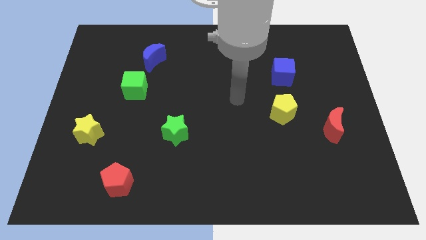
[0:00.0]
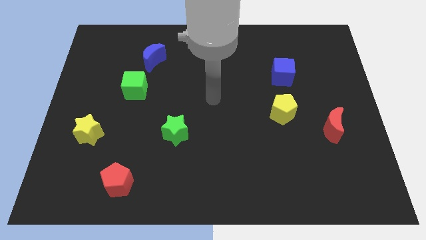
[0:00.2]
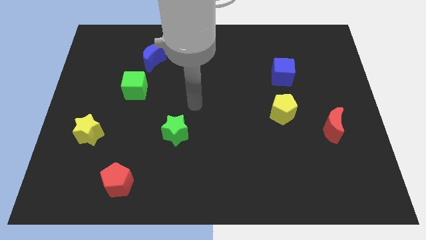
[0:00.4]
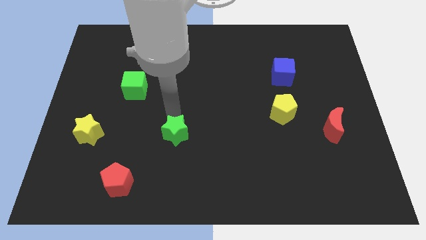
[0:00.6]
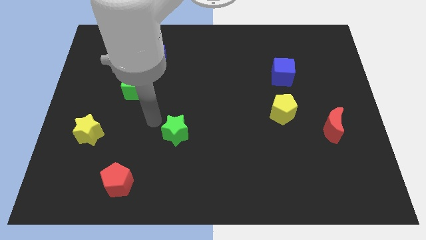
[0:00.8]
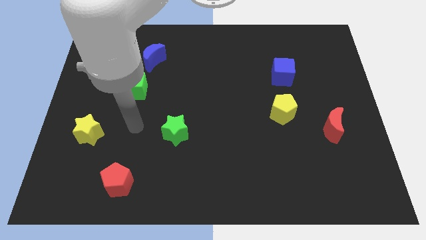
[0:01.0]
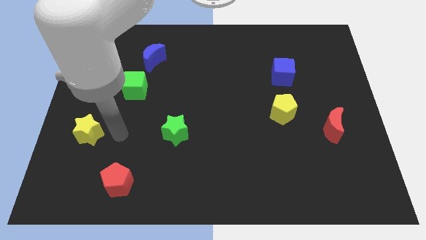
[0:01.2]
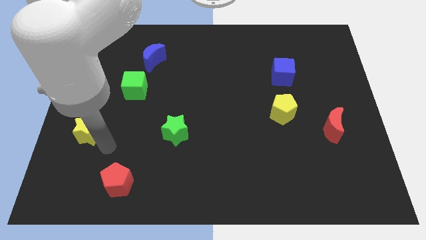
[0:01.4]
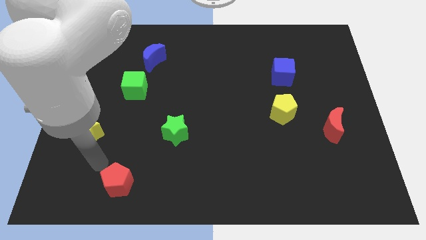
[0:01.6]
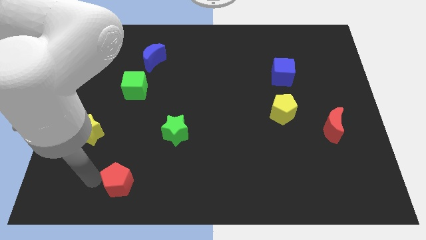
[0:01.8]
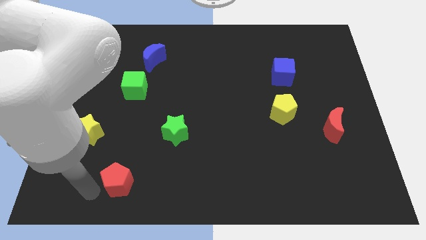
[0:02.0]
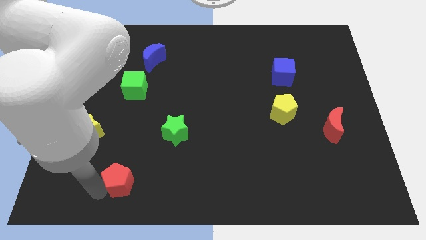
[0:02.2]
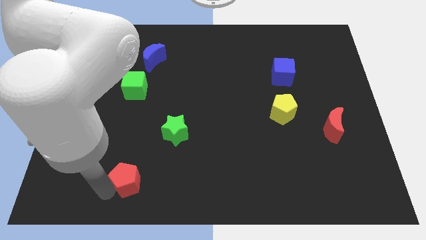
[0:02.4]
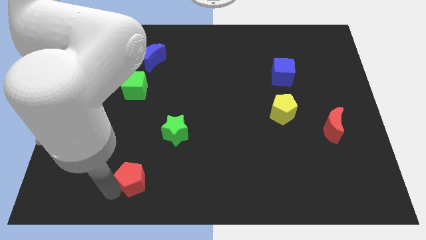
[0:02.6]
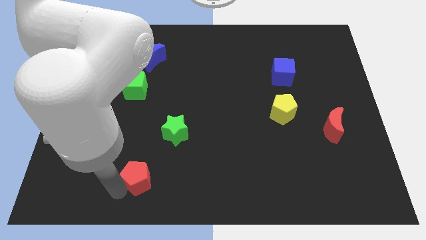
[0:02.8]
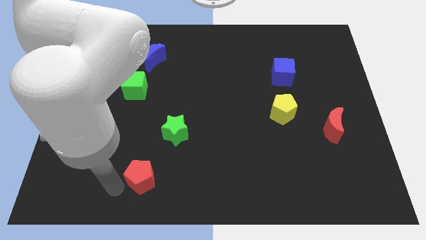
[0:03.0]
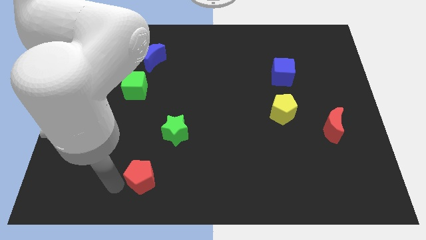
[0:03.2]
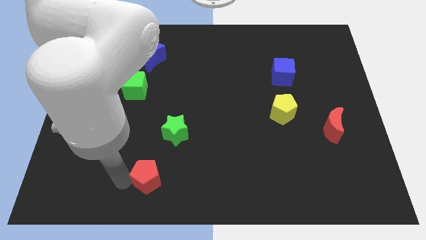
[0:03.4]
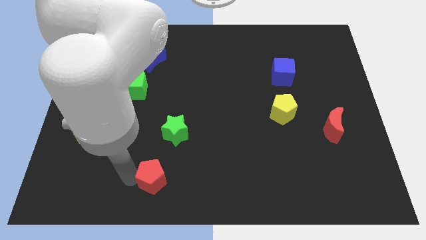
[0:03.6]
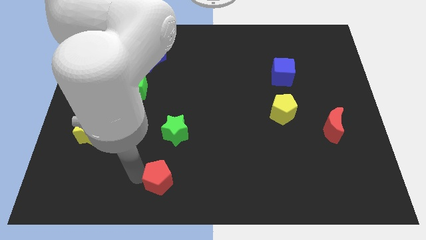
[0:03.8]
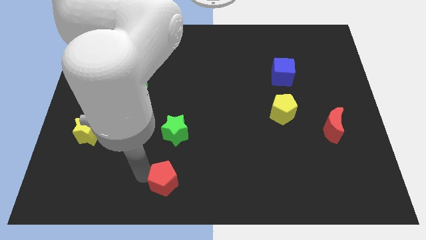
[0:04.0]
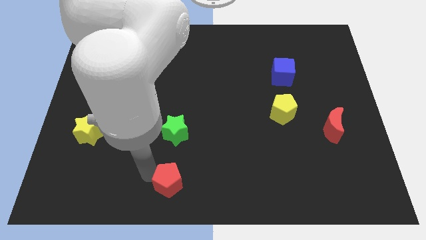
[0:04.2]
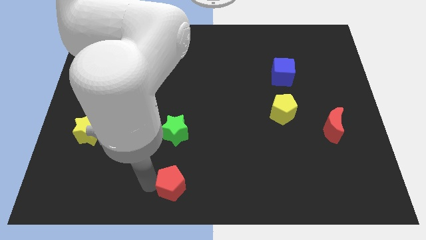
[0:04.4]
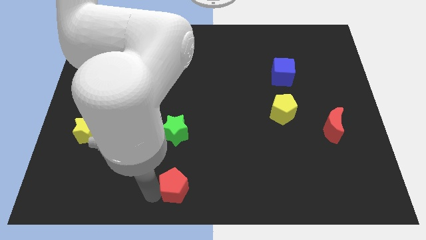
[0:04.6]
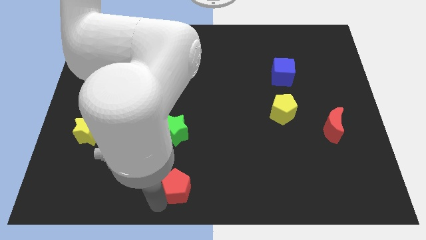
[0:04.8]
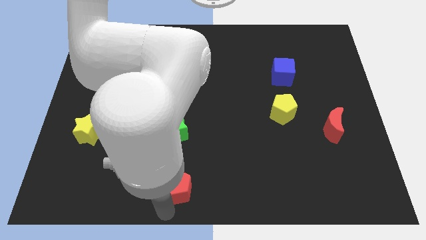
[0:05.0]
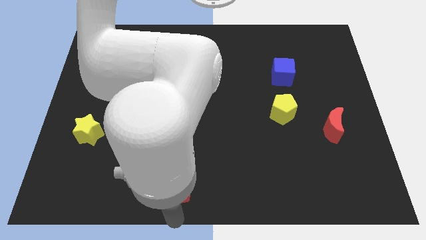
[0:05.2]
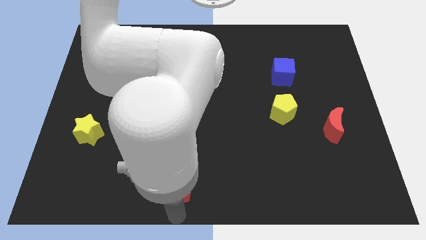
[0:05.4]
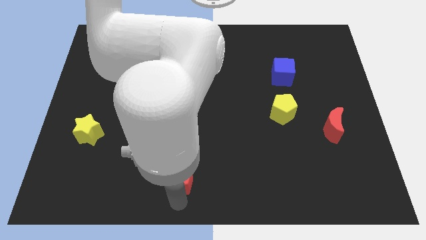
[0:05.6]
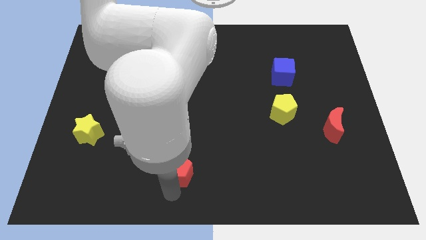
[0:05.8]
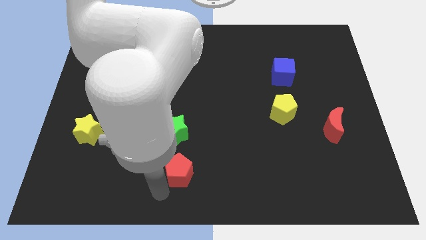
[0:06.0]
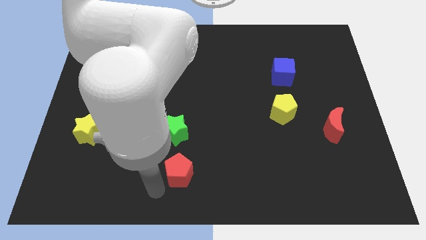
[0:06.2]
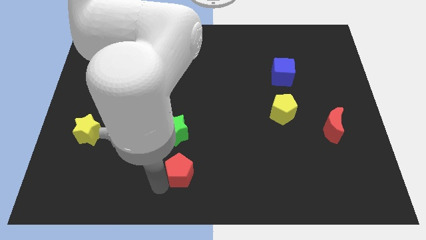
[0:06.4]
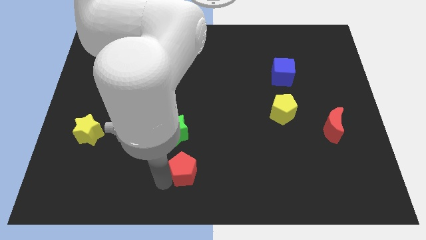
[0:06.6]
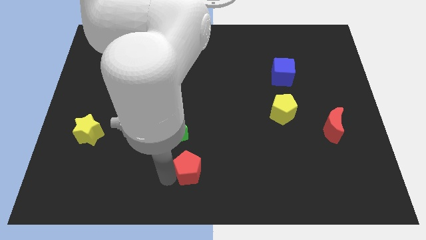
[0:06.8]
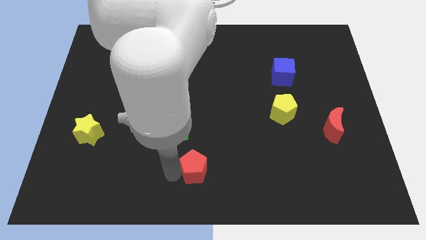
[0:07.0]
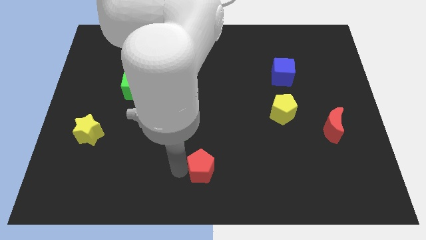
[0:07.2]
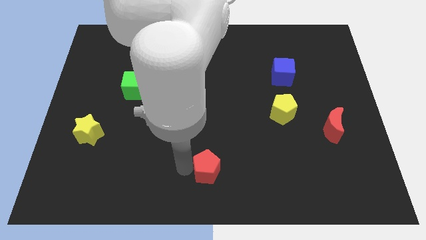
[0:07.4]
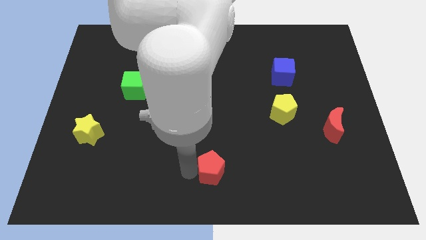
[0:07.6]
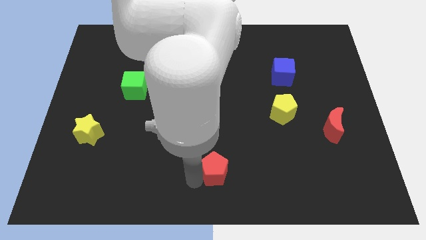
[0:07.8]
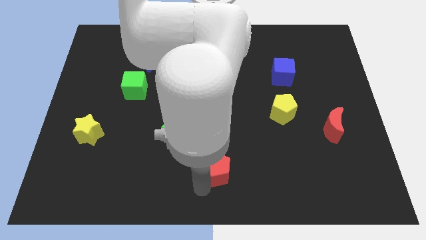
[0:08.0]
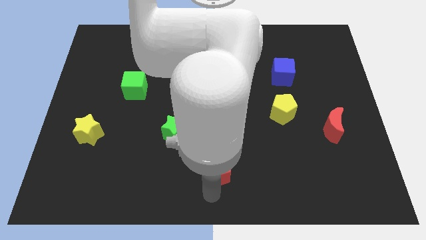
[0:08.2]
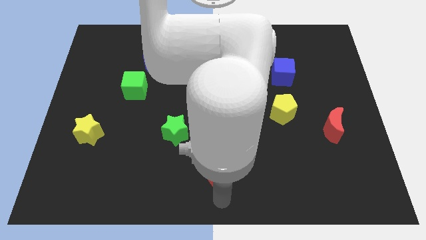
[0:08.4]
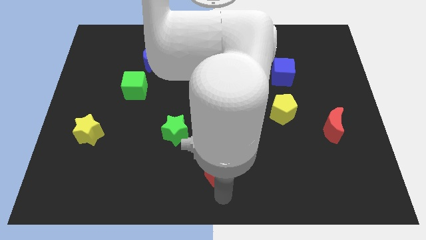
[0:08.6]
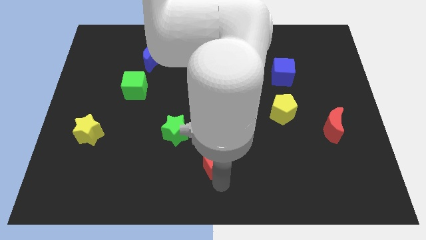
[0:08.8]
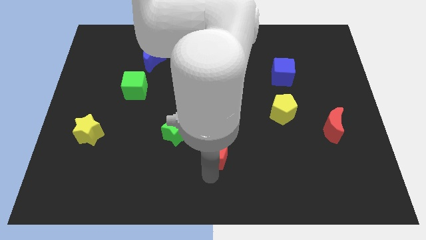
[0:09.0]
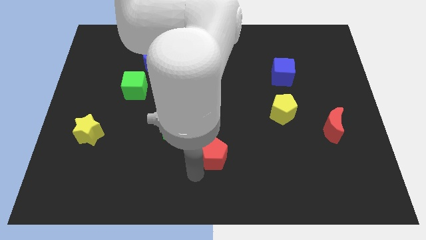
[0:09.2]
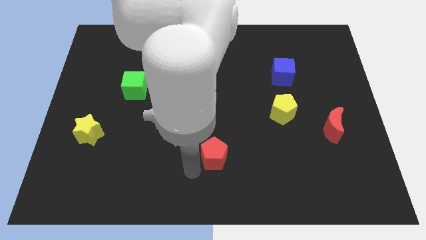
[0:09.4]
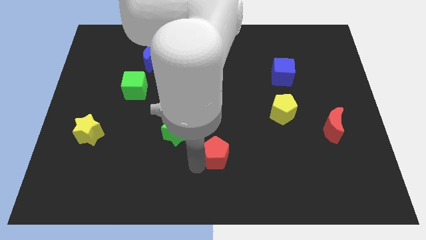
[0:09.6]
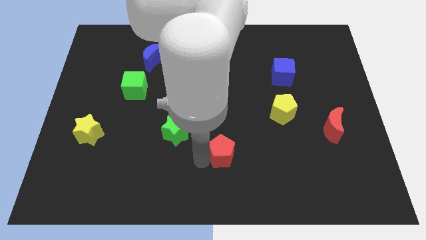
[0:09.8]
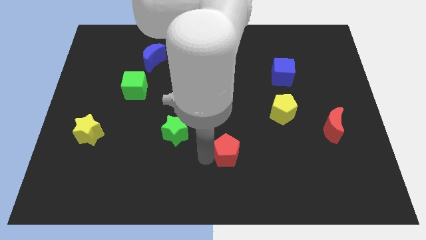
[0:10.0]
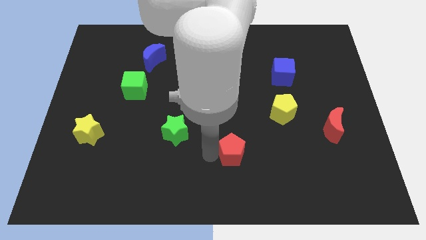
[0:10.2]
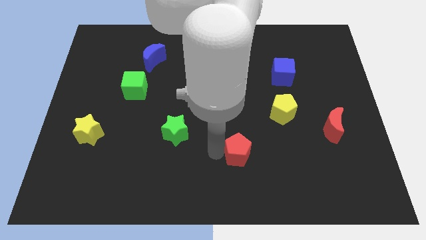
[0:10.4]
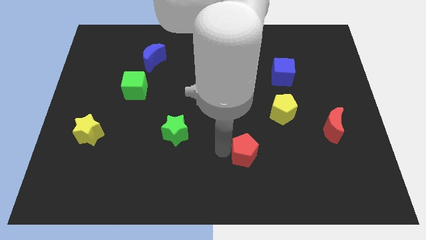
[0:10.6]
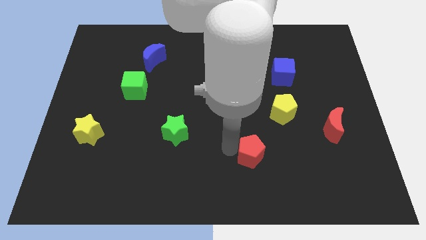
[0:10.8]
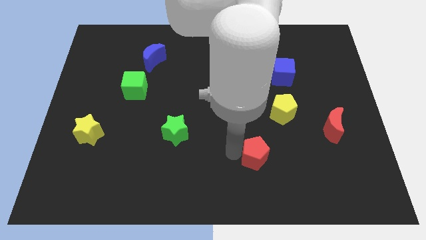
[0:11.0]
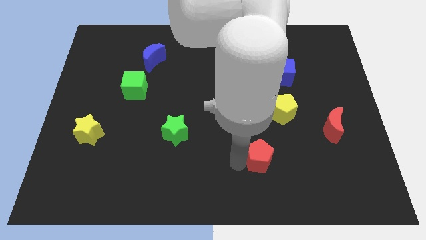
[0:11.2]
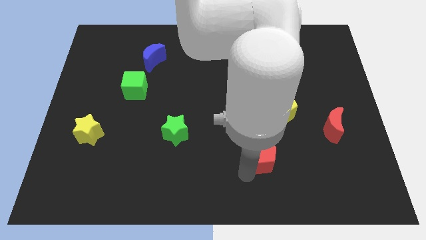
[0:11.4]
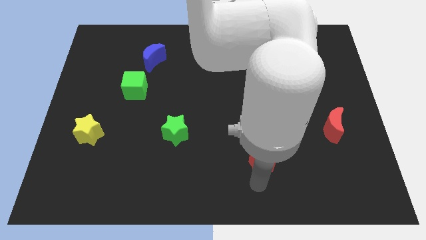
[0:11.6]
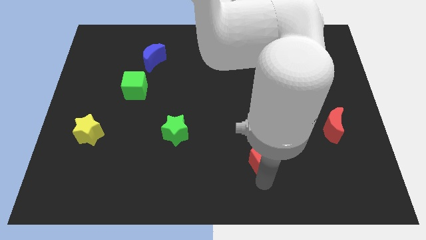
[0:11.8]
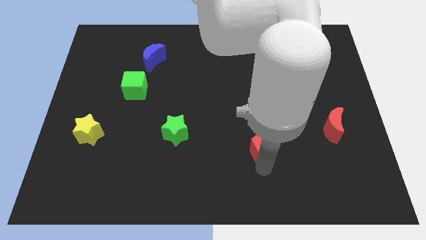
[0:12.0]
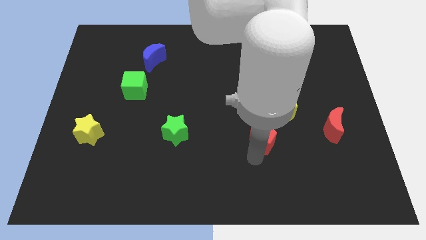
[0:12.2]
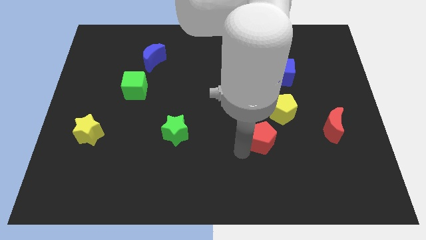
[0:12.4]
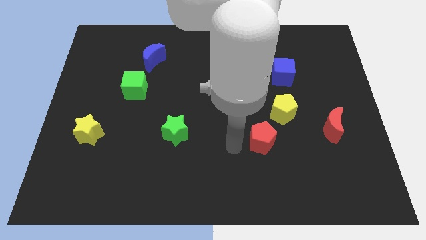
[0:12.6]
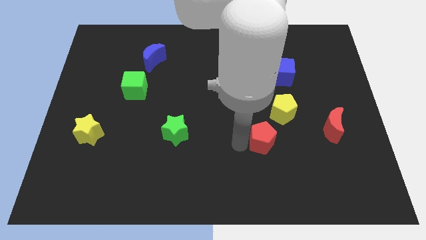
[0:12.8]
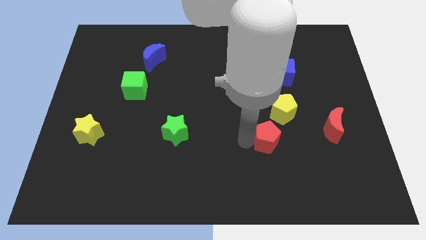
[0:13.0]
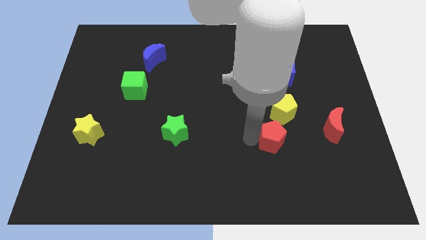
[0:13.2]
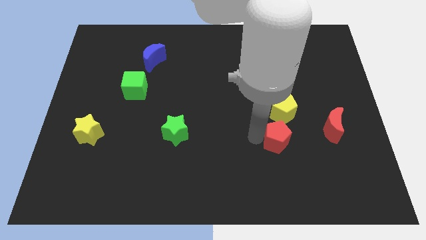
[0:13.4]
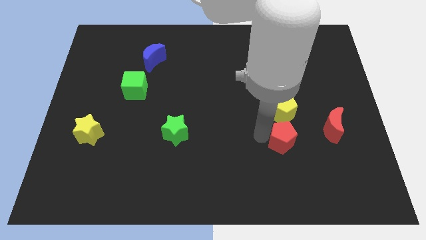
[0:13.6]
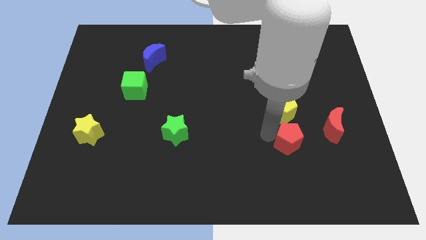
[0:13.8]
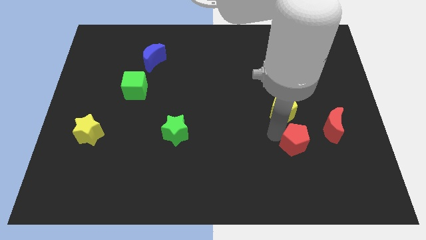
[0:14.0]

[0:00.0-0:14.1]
put the red pentagon diagonally down and to the right of the yellow pentagon
